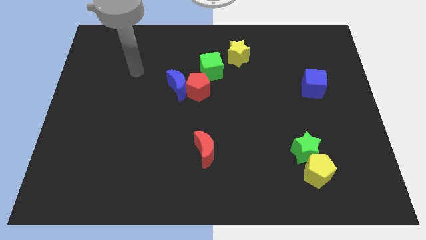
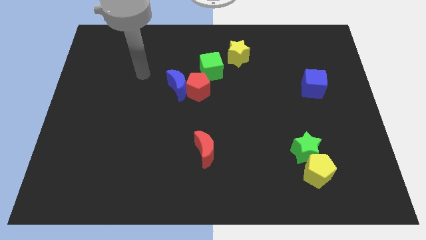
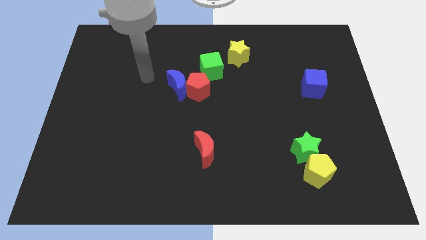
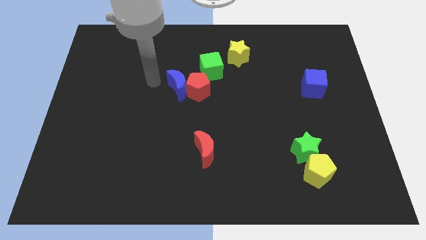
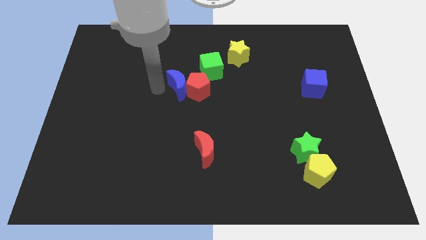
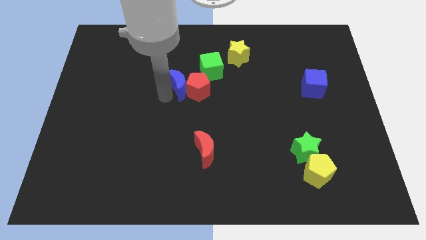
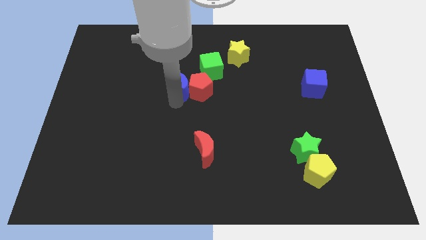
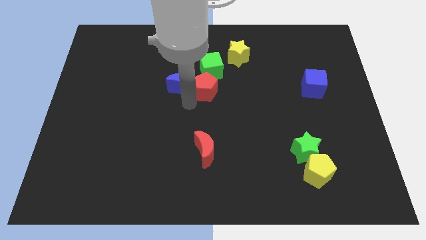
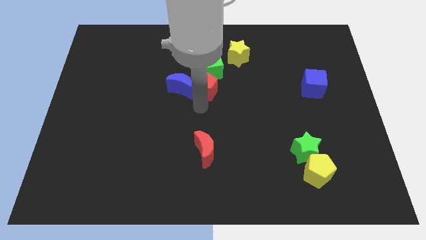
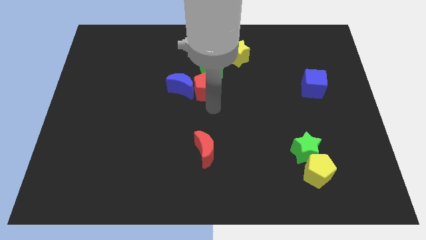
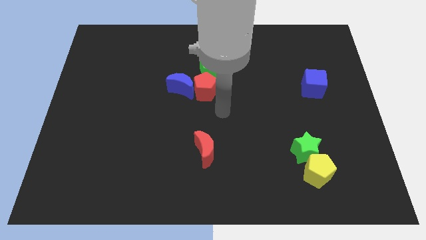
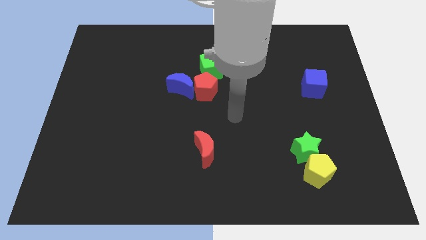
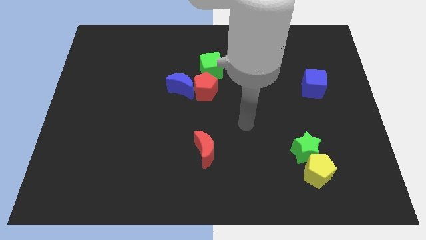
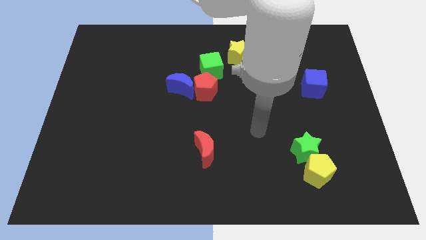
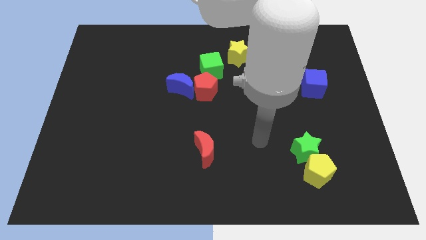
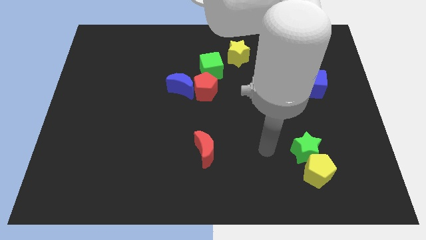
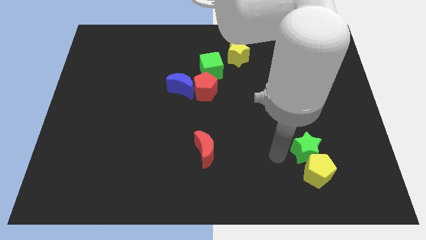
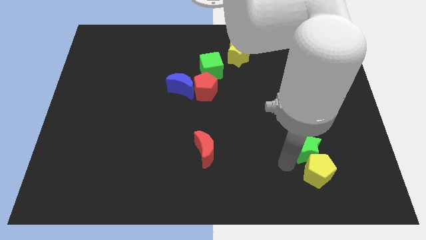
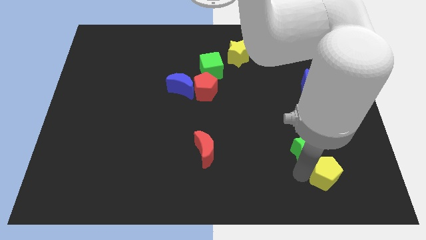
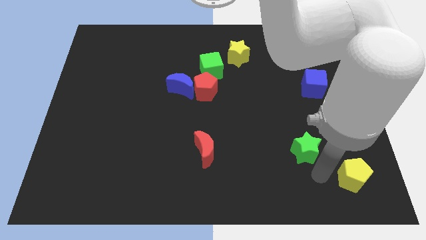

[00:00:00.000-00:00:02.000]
pull the green star apart from the yellow pentagon

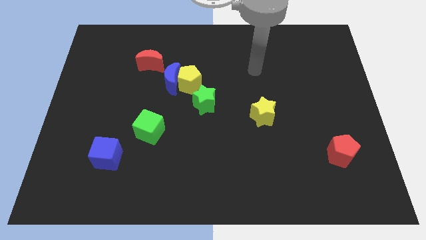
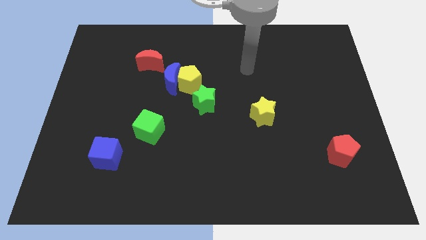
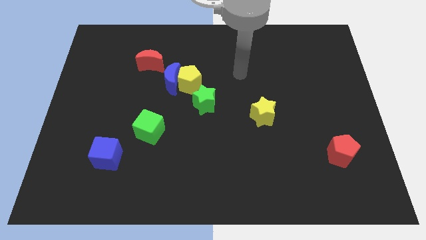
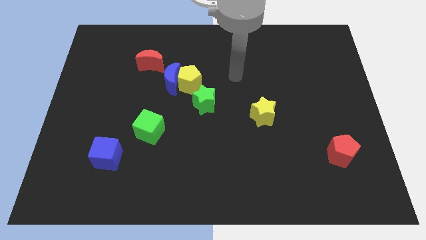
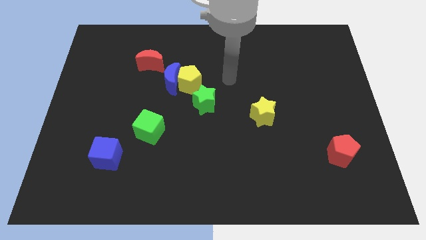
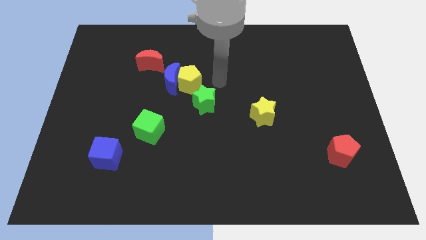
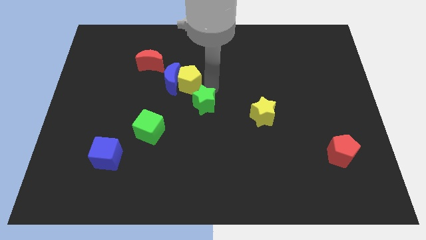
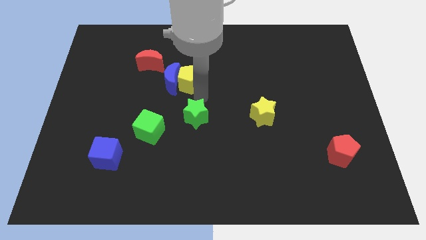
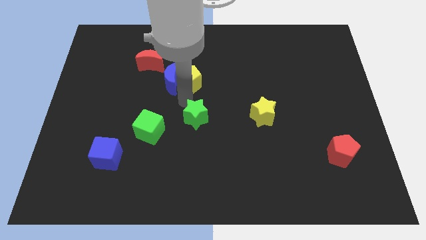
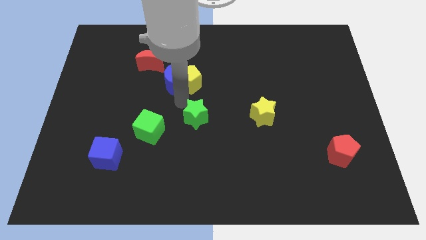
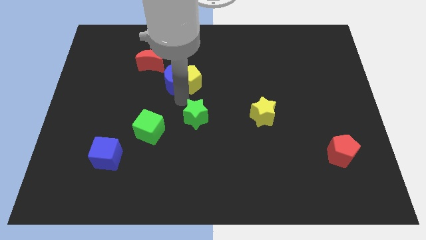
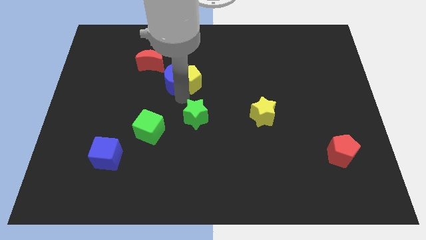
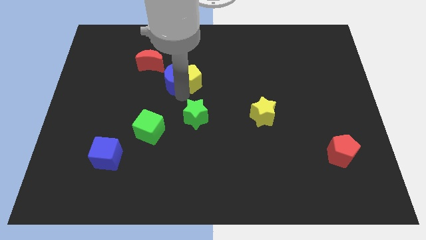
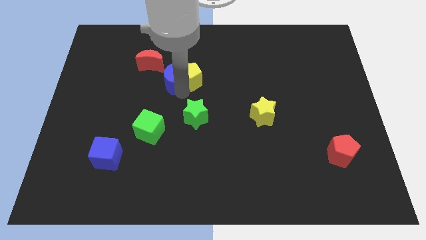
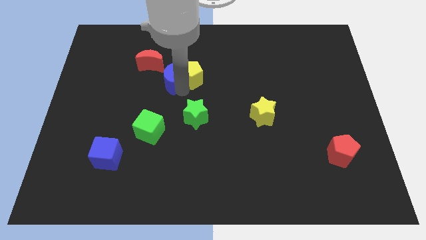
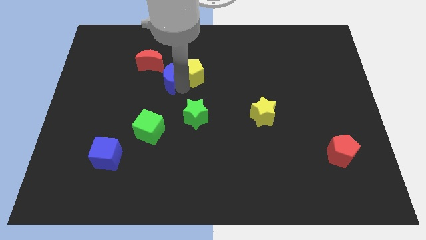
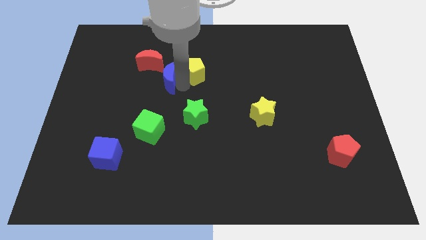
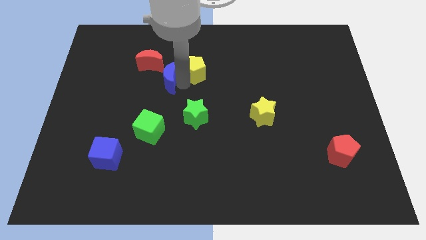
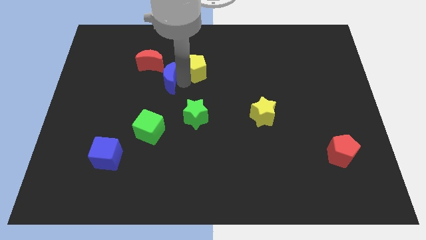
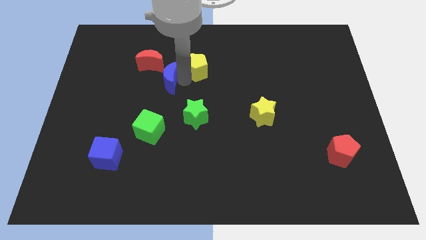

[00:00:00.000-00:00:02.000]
separate the yellow pentagon from the blue moon and green star

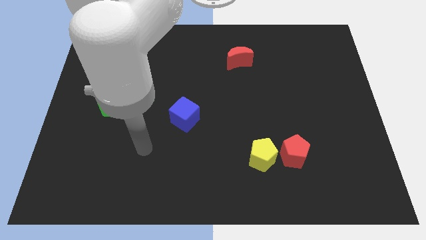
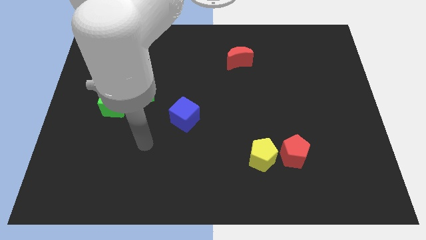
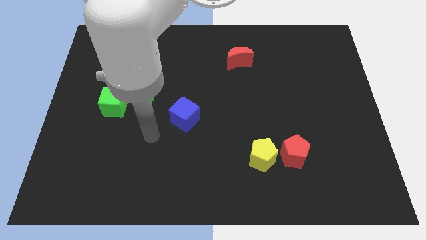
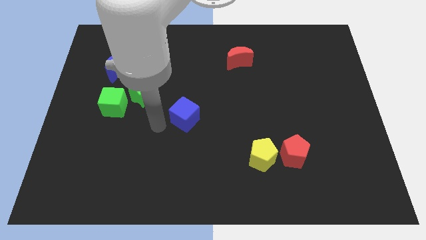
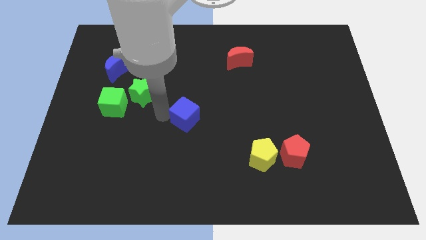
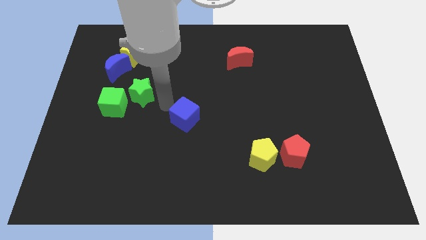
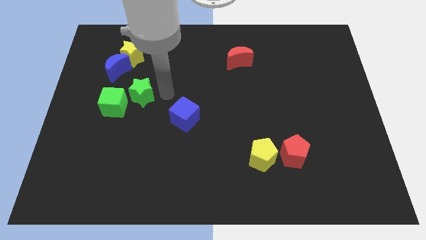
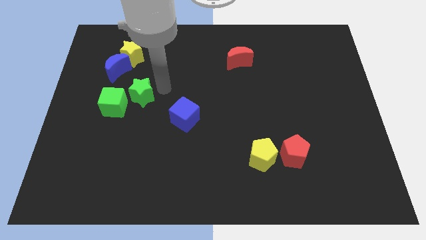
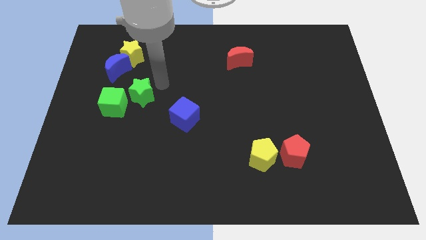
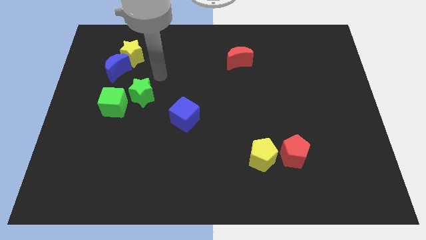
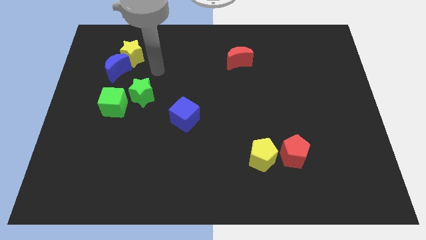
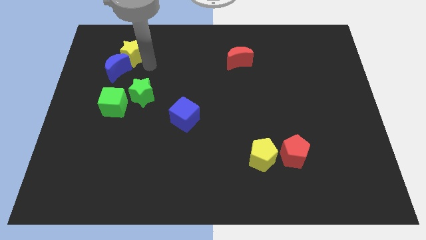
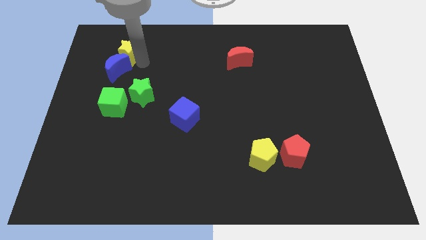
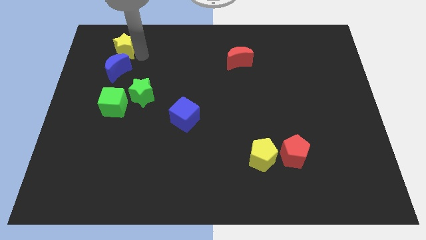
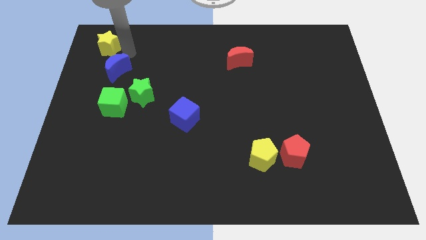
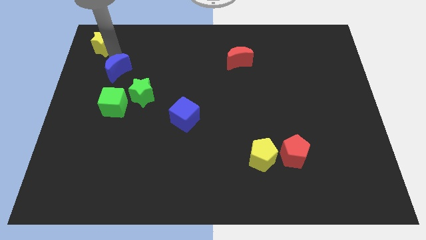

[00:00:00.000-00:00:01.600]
pull the blue moon apart from the yellow star

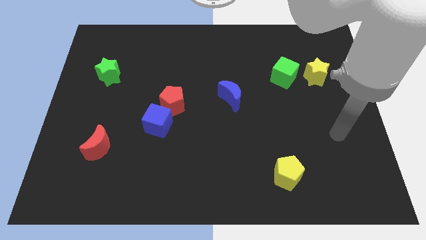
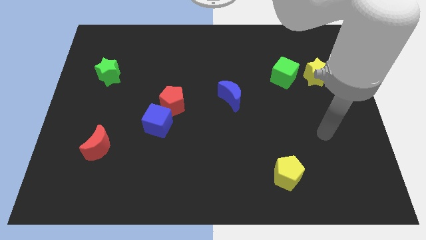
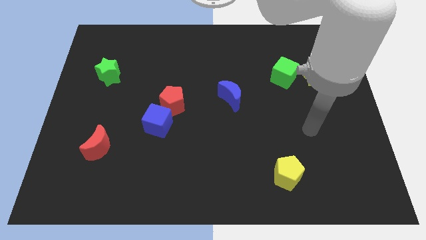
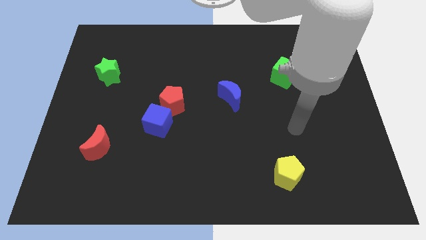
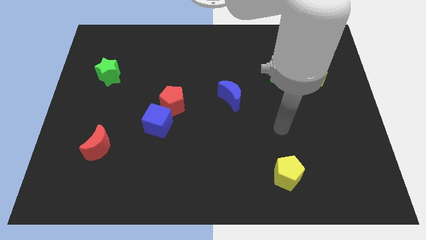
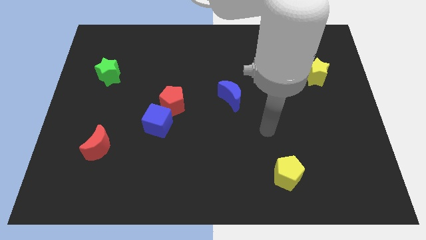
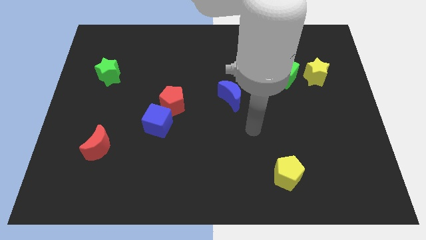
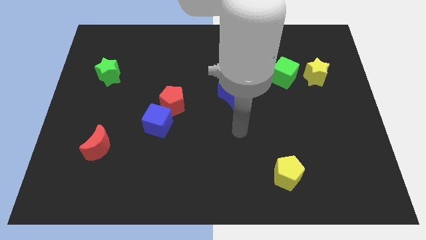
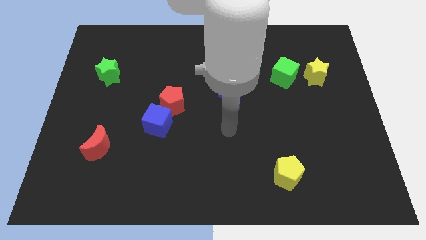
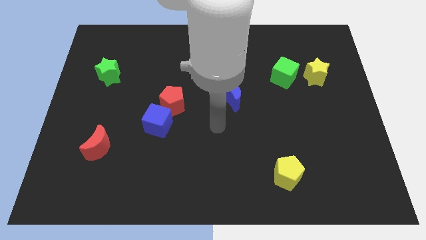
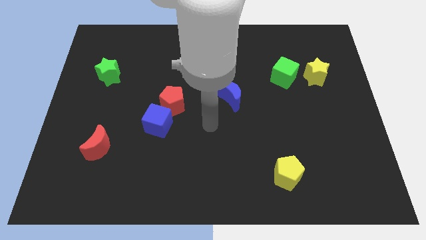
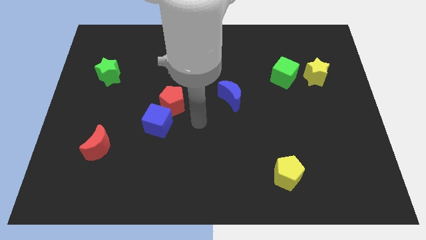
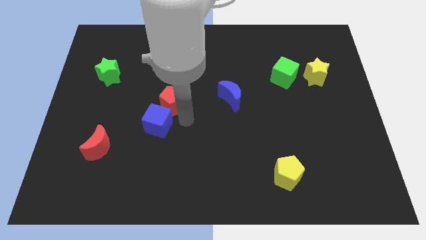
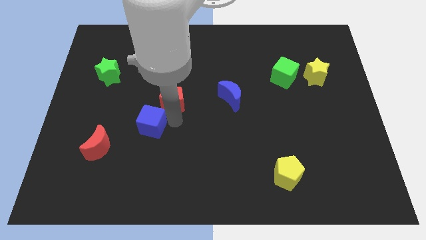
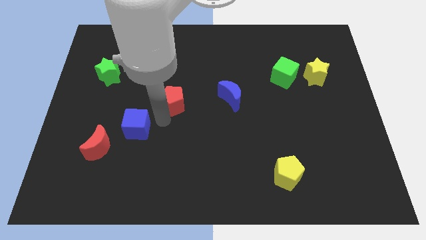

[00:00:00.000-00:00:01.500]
separate the red pentagon from the blue cube

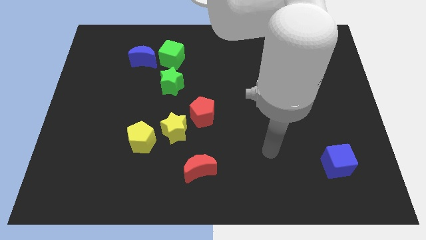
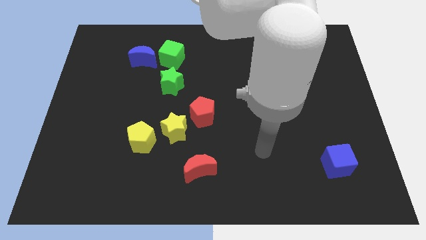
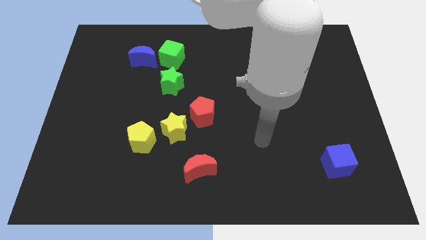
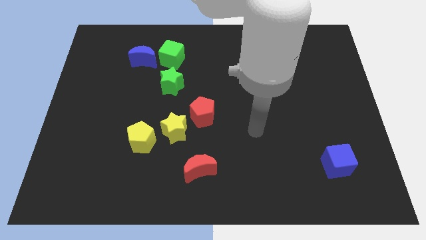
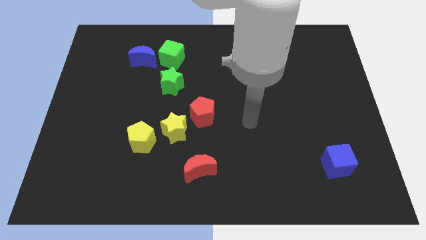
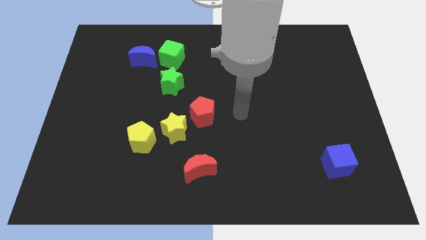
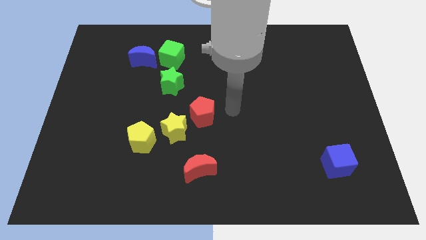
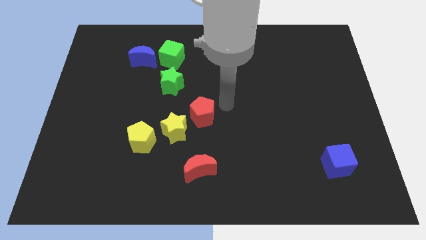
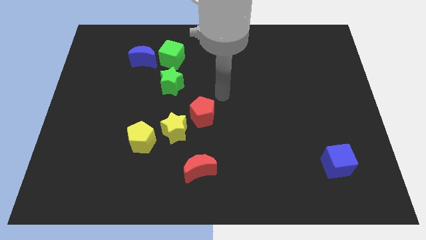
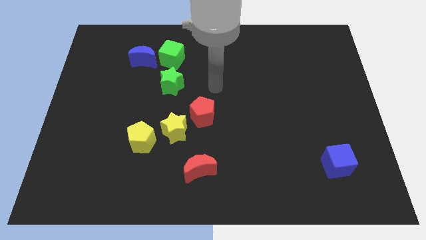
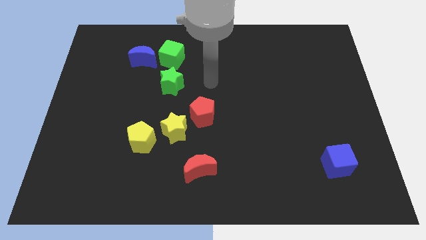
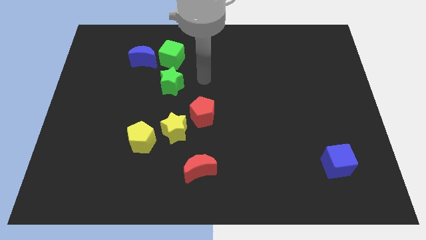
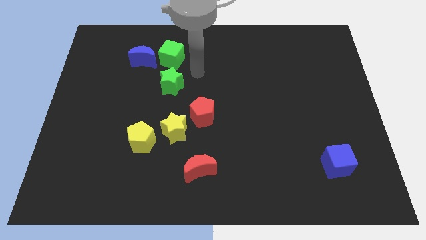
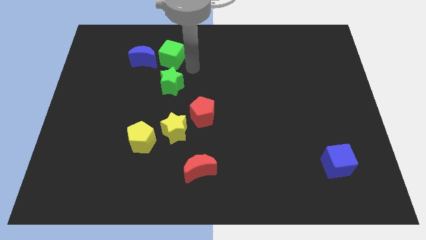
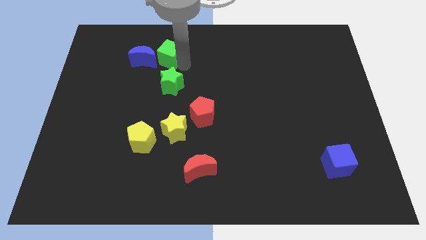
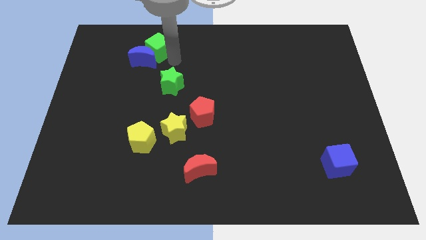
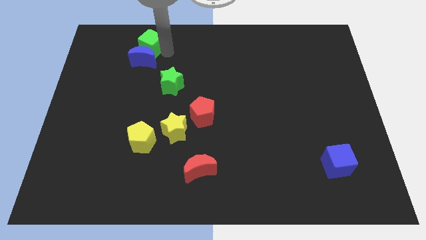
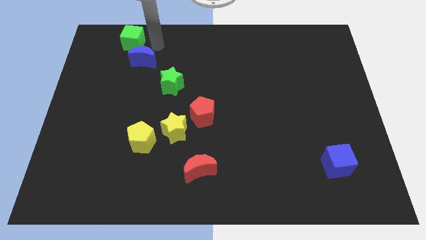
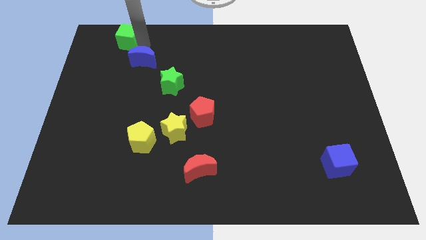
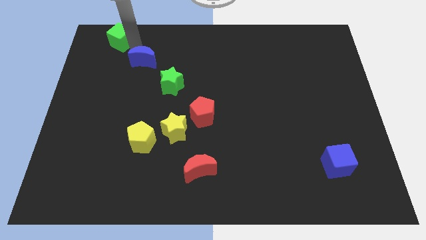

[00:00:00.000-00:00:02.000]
separate the blue moon from the green cube
